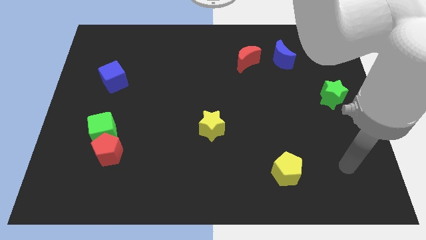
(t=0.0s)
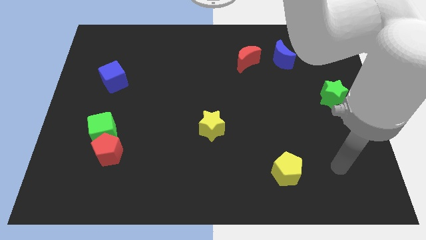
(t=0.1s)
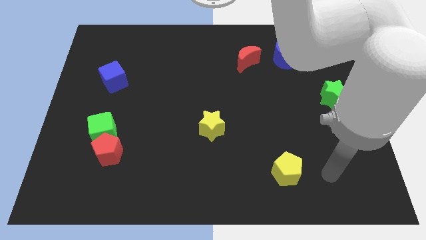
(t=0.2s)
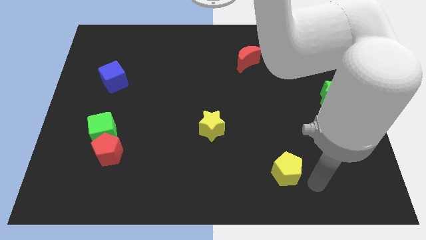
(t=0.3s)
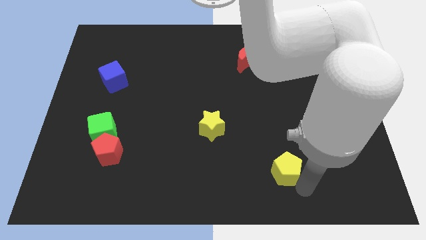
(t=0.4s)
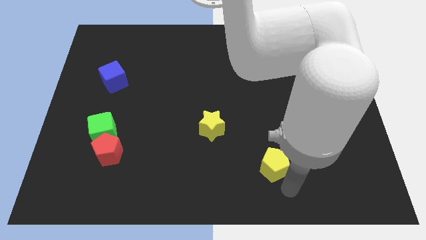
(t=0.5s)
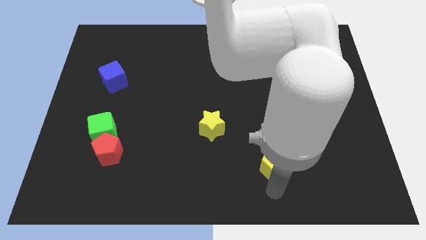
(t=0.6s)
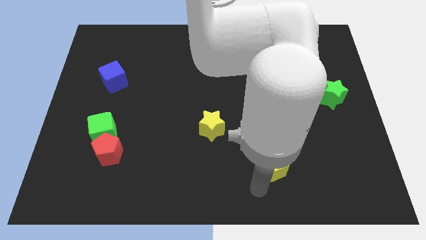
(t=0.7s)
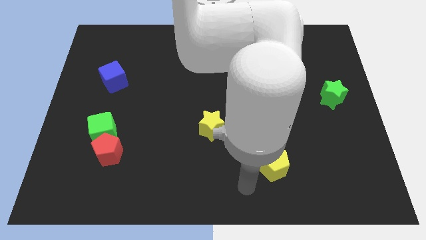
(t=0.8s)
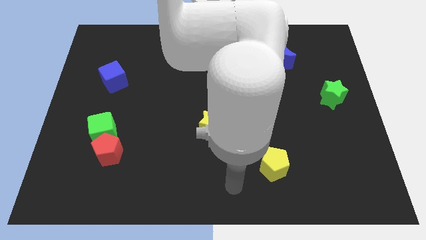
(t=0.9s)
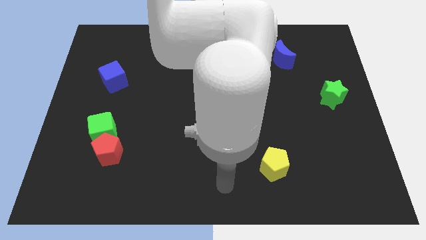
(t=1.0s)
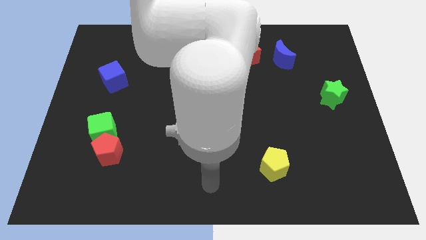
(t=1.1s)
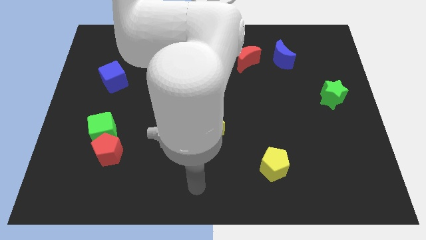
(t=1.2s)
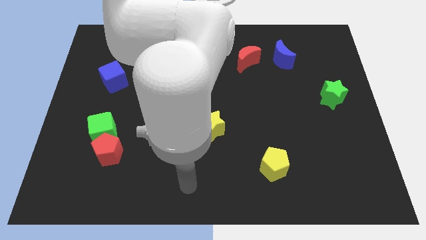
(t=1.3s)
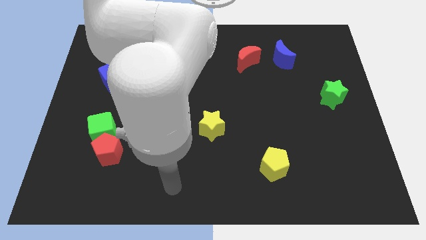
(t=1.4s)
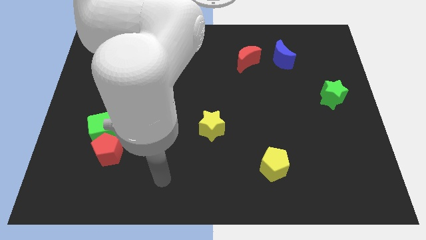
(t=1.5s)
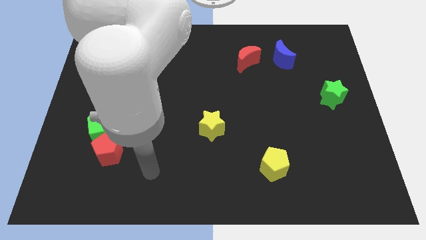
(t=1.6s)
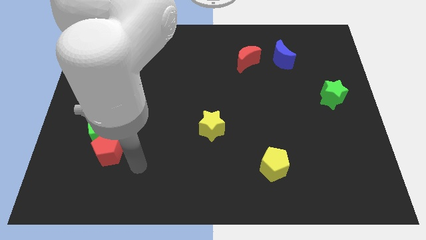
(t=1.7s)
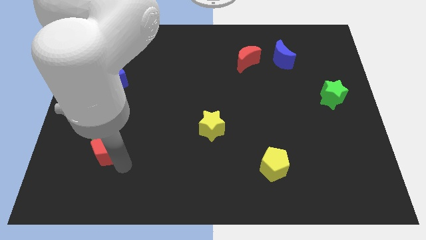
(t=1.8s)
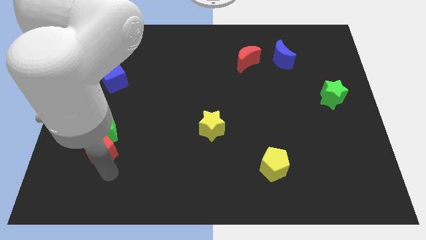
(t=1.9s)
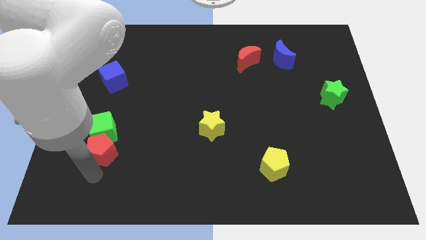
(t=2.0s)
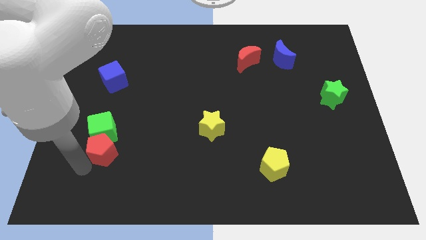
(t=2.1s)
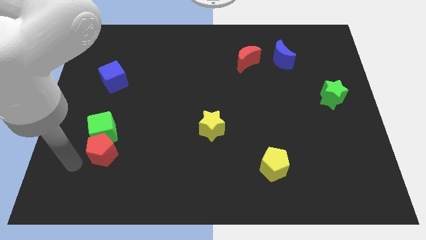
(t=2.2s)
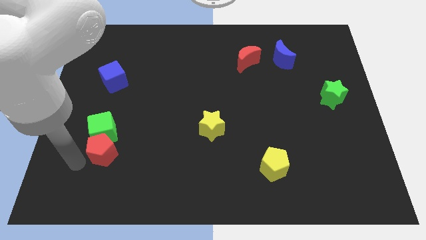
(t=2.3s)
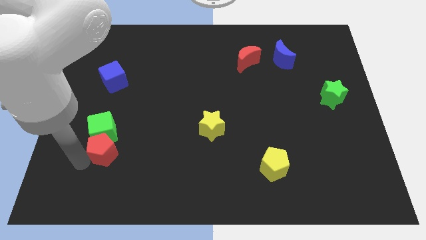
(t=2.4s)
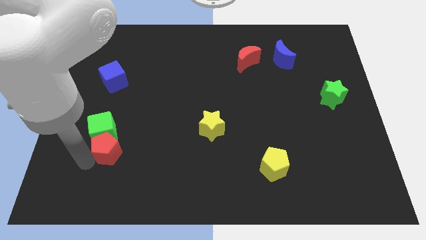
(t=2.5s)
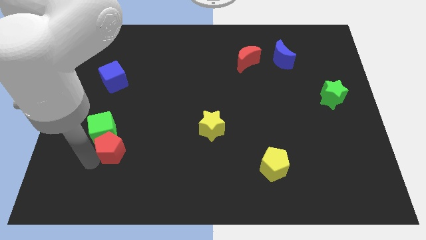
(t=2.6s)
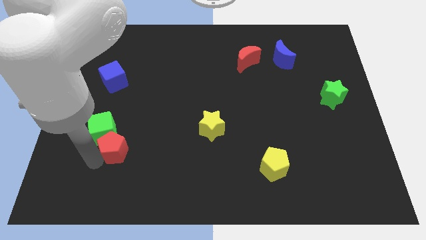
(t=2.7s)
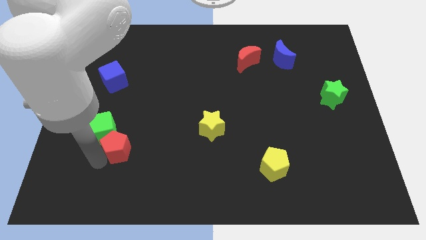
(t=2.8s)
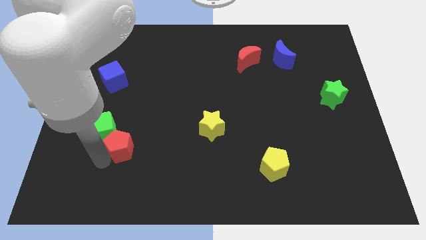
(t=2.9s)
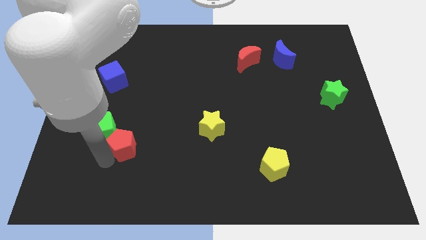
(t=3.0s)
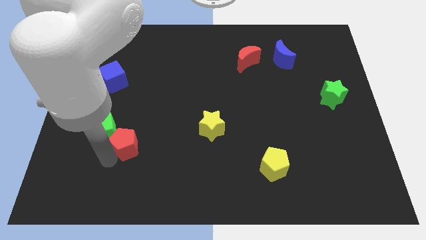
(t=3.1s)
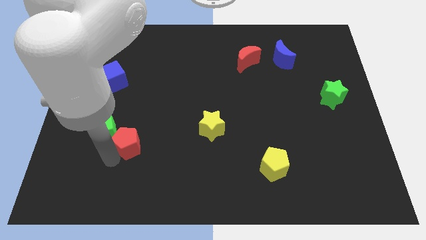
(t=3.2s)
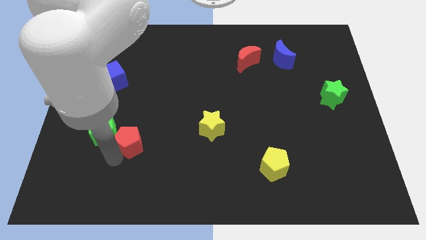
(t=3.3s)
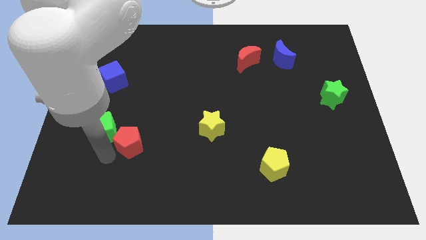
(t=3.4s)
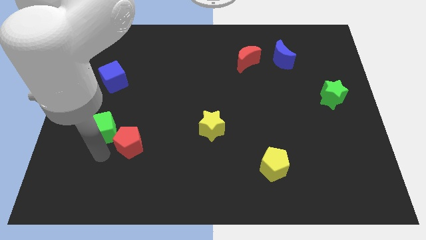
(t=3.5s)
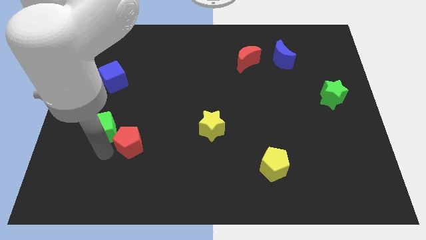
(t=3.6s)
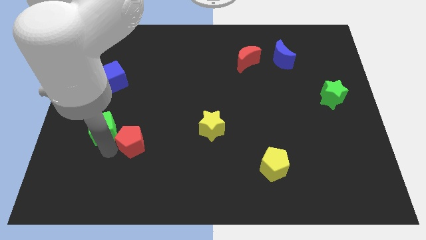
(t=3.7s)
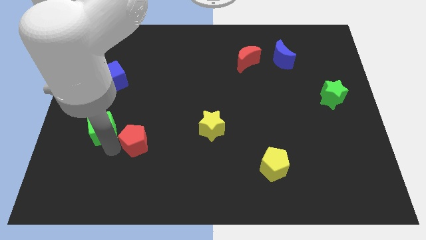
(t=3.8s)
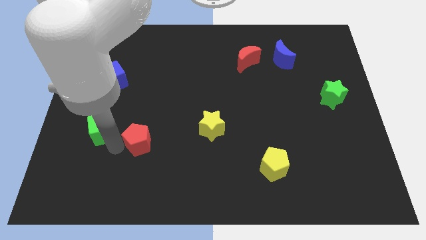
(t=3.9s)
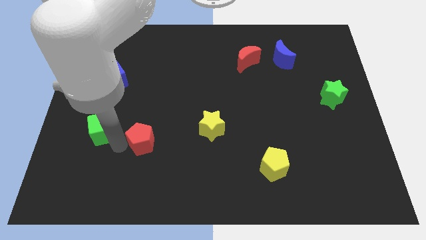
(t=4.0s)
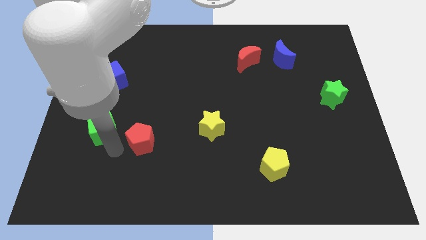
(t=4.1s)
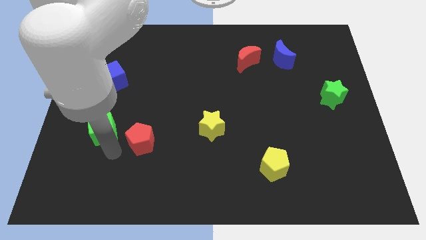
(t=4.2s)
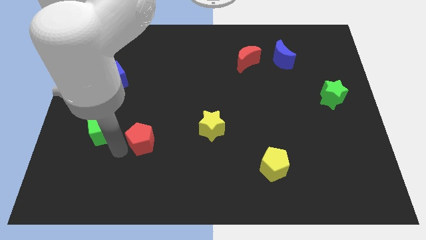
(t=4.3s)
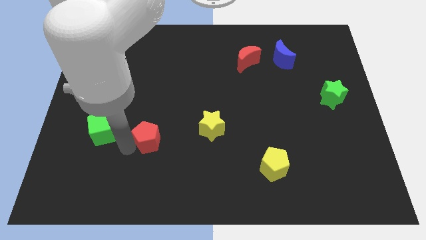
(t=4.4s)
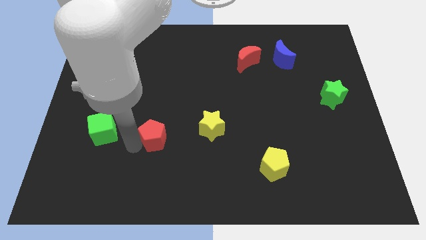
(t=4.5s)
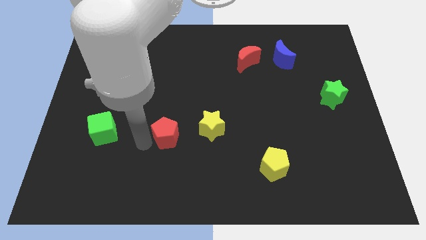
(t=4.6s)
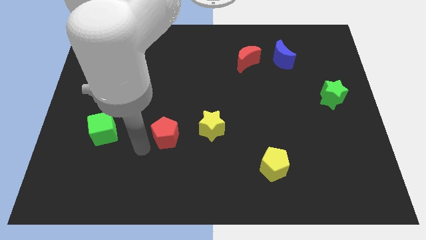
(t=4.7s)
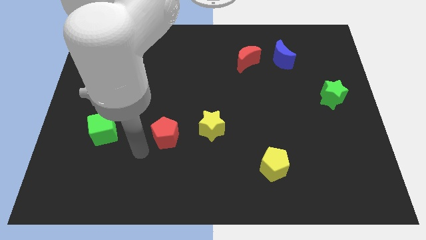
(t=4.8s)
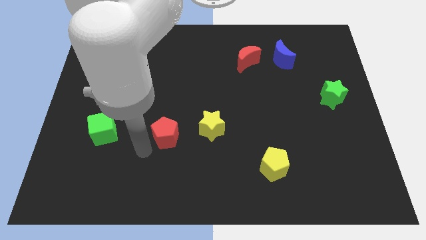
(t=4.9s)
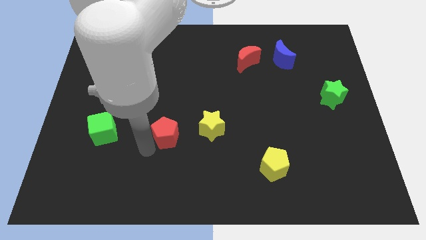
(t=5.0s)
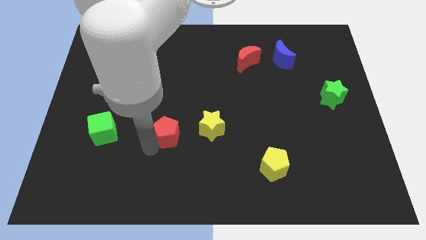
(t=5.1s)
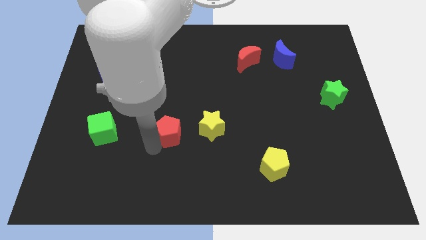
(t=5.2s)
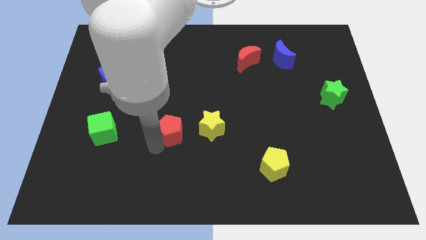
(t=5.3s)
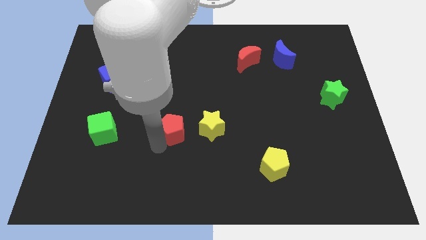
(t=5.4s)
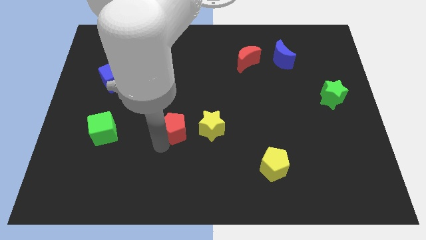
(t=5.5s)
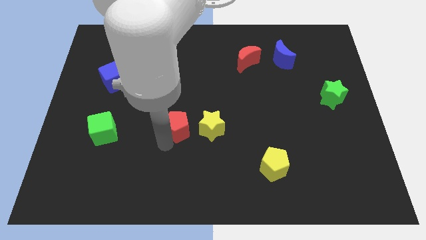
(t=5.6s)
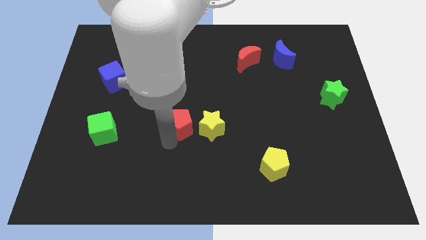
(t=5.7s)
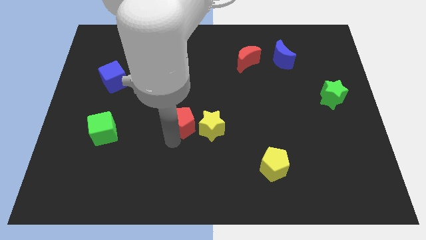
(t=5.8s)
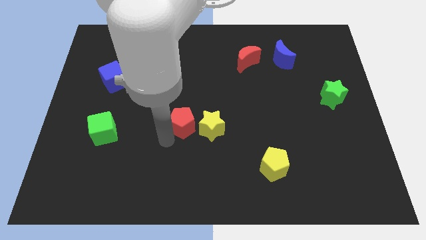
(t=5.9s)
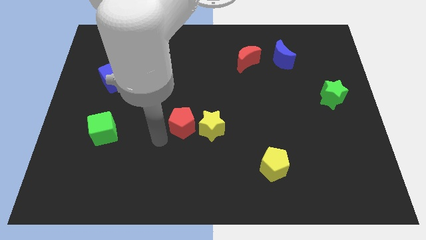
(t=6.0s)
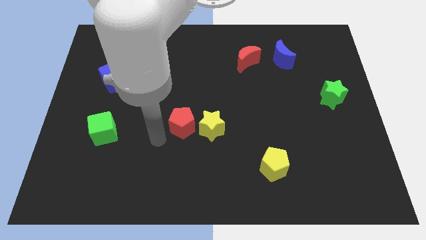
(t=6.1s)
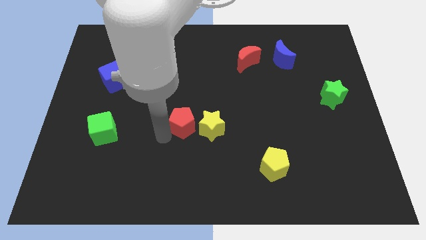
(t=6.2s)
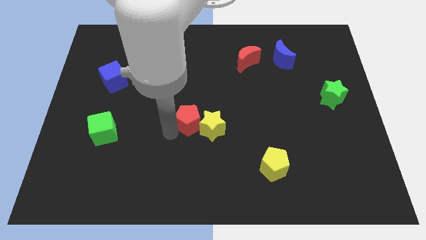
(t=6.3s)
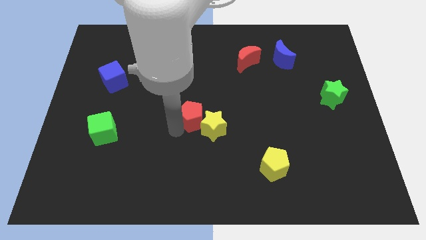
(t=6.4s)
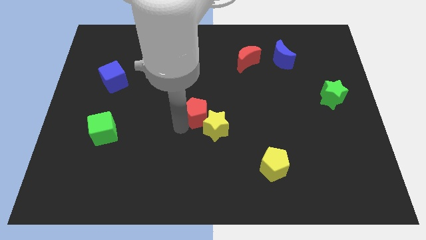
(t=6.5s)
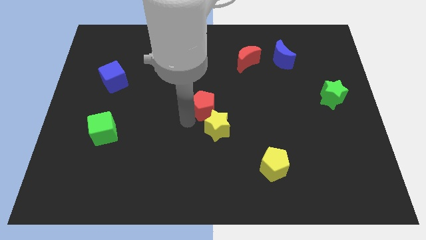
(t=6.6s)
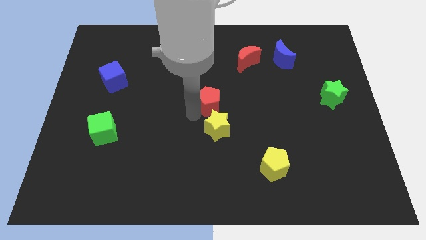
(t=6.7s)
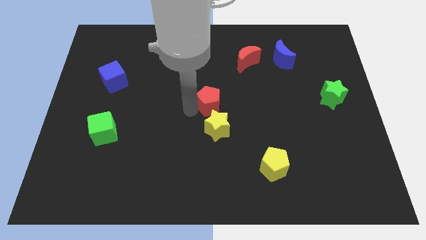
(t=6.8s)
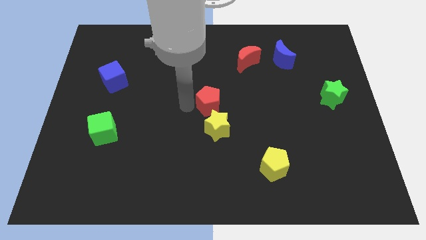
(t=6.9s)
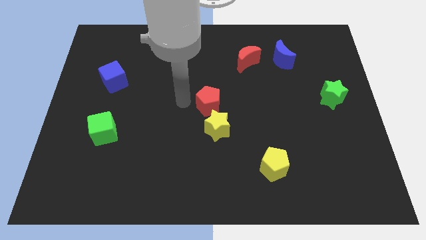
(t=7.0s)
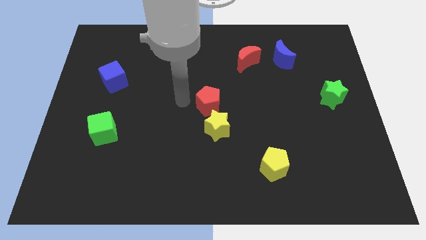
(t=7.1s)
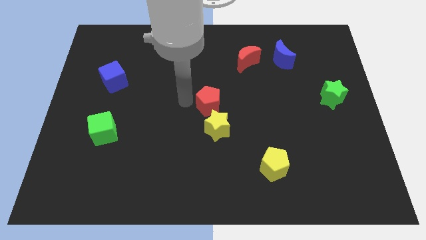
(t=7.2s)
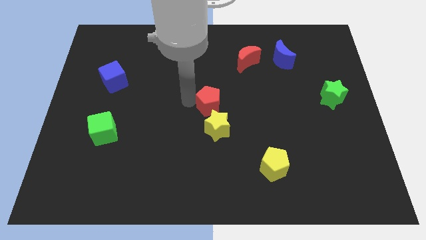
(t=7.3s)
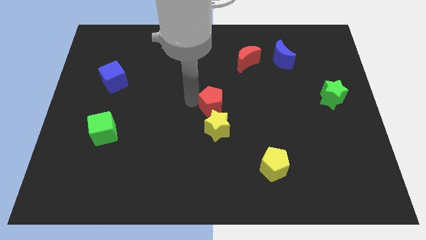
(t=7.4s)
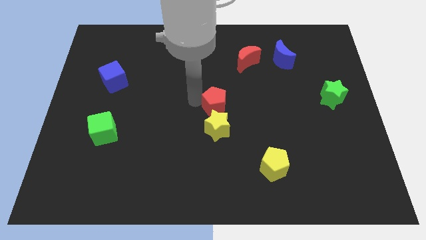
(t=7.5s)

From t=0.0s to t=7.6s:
slide the red pentagon diagonally up and to the right of the yellow star
